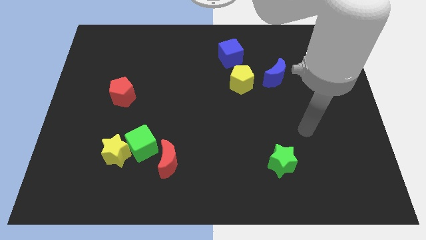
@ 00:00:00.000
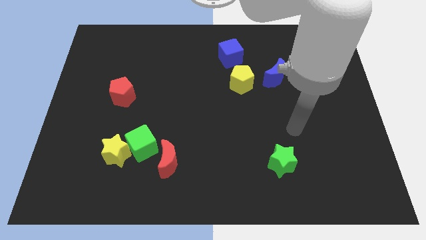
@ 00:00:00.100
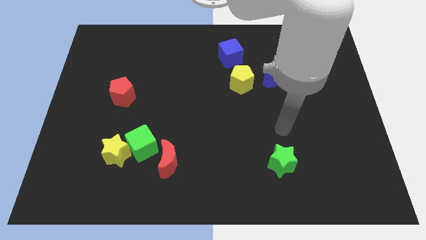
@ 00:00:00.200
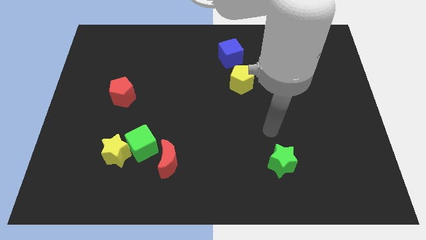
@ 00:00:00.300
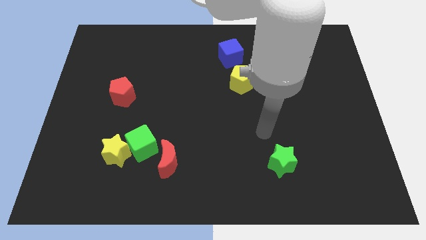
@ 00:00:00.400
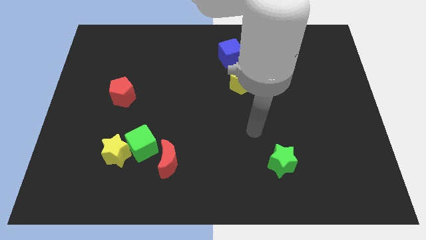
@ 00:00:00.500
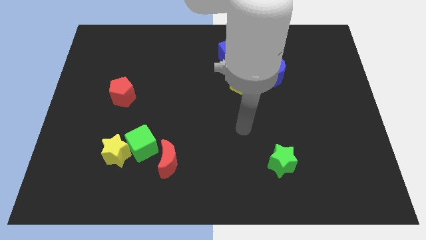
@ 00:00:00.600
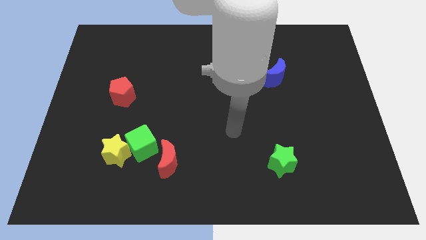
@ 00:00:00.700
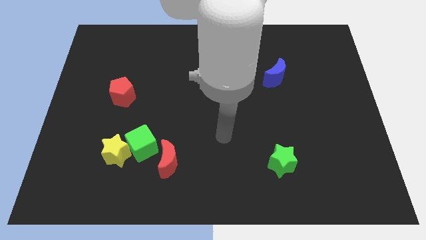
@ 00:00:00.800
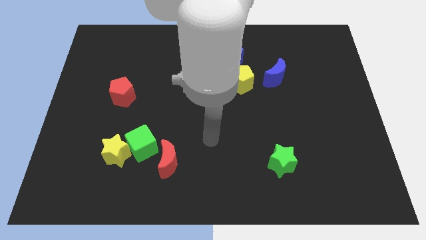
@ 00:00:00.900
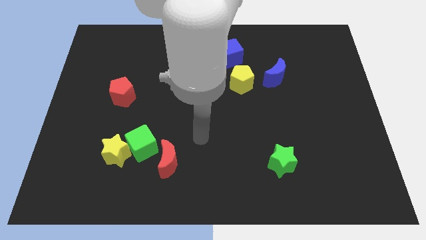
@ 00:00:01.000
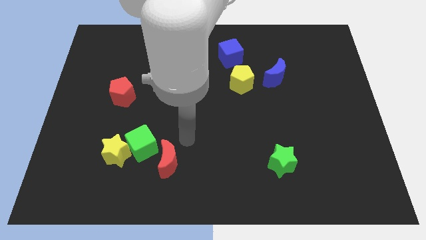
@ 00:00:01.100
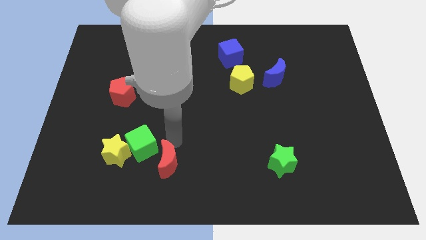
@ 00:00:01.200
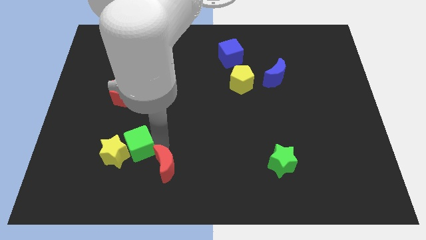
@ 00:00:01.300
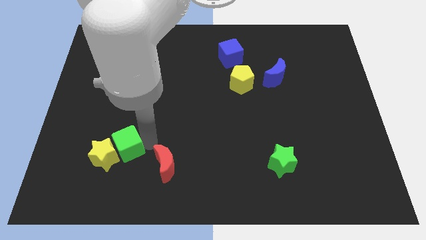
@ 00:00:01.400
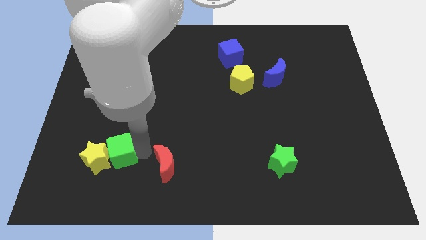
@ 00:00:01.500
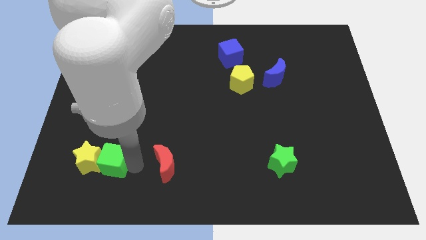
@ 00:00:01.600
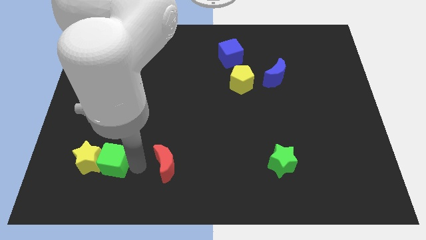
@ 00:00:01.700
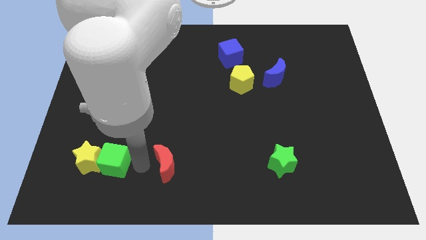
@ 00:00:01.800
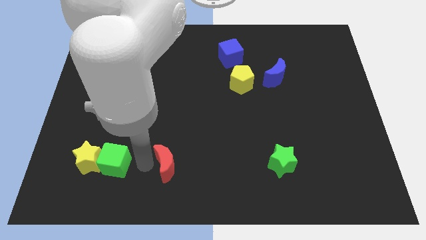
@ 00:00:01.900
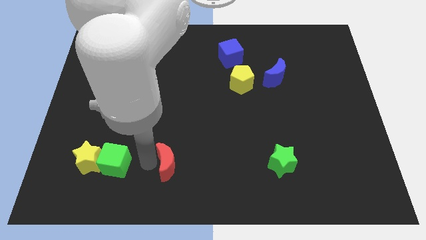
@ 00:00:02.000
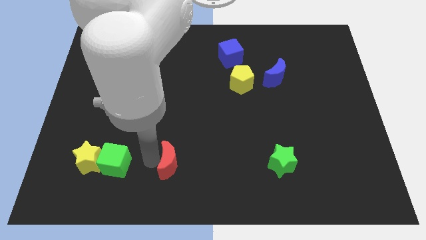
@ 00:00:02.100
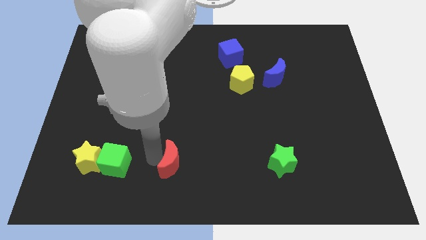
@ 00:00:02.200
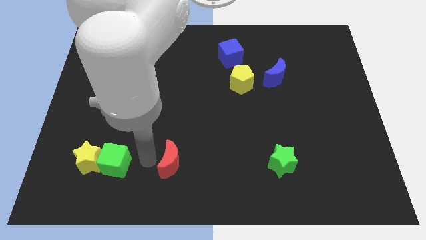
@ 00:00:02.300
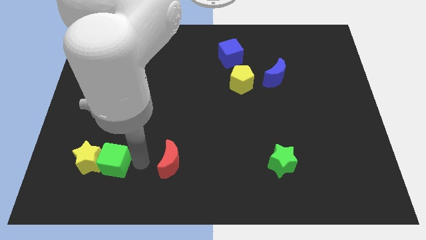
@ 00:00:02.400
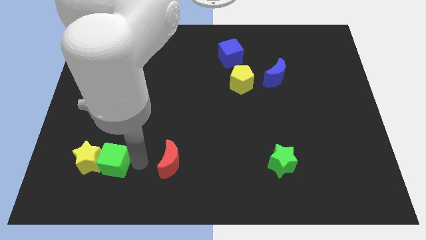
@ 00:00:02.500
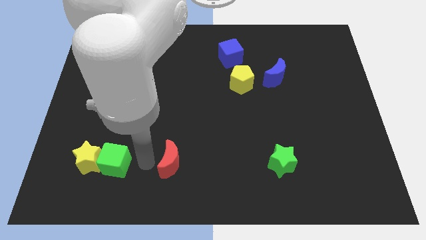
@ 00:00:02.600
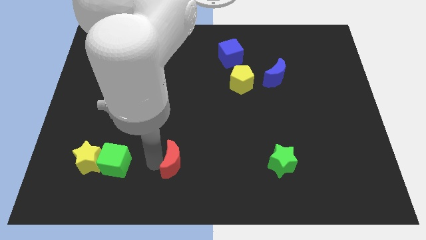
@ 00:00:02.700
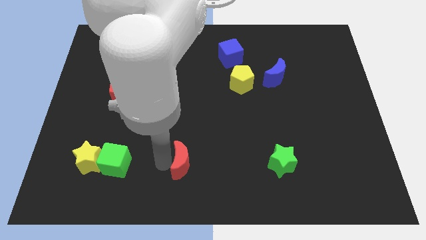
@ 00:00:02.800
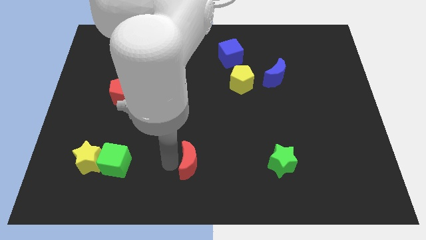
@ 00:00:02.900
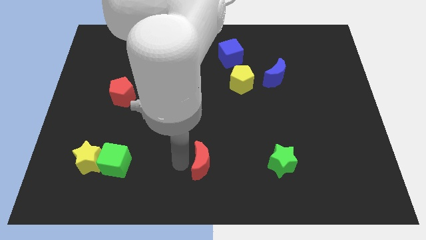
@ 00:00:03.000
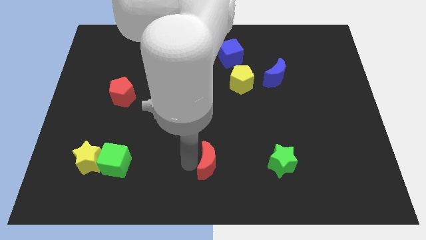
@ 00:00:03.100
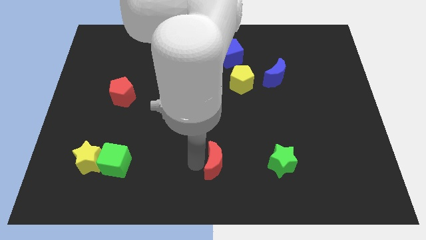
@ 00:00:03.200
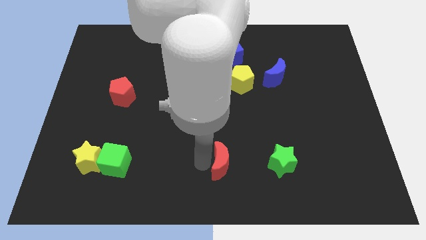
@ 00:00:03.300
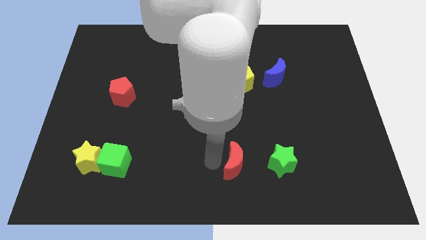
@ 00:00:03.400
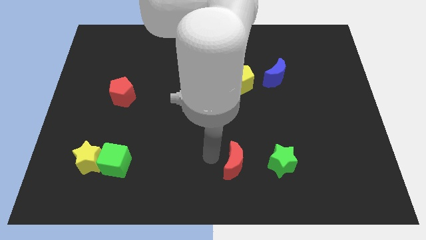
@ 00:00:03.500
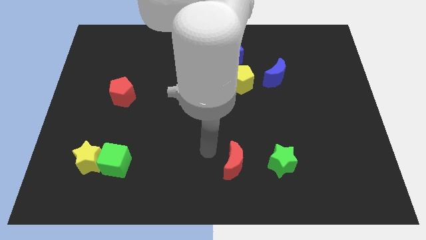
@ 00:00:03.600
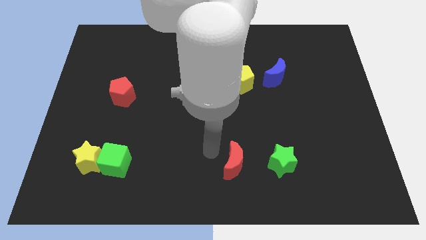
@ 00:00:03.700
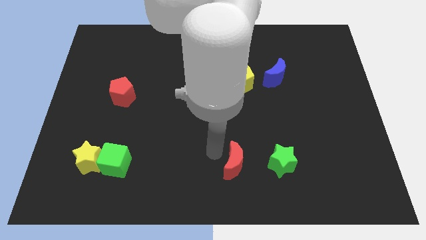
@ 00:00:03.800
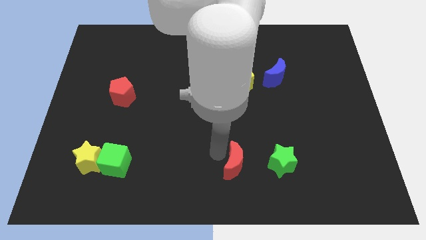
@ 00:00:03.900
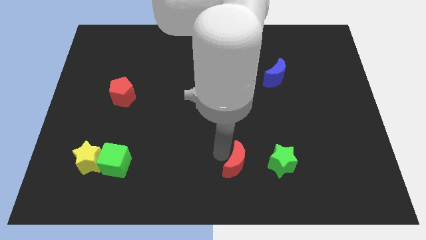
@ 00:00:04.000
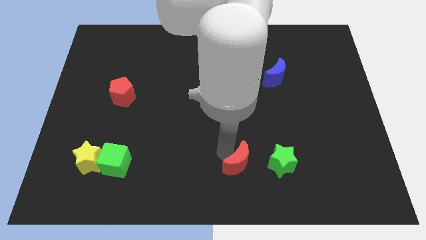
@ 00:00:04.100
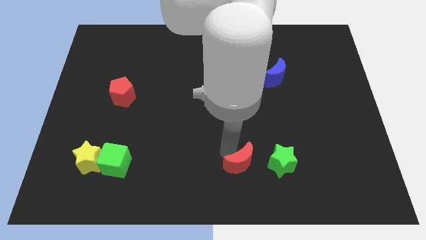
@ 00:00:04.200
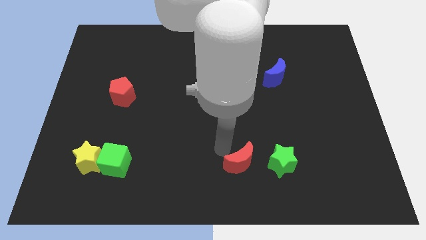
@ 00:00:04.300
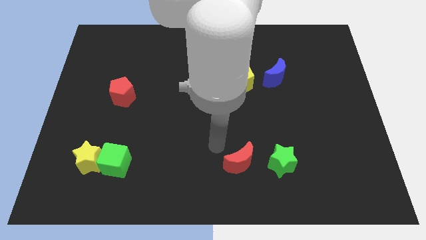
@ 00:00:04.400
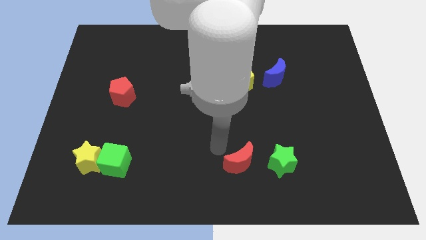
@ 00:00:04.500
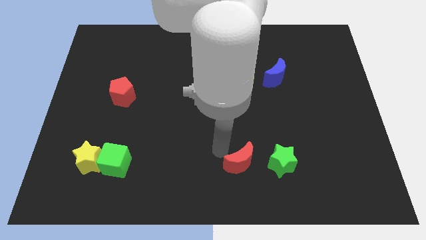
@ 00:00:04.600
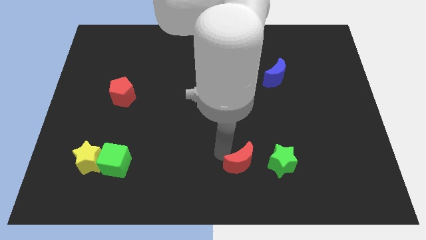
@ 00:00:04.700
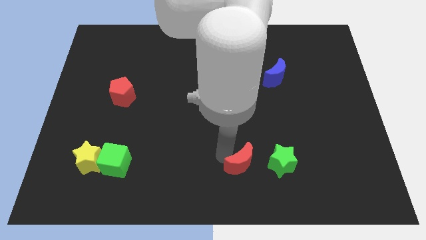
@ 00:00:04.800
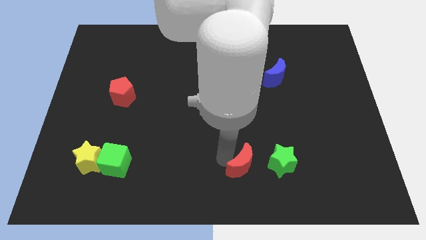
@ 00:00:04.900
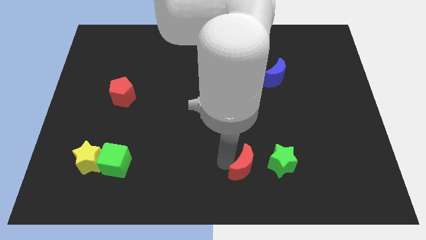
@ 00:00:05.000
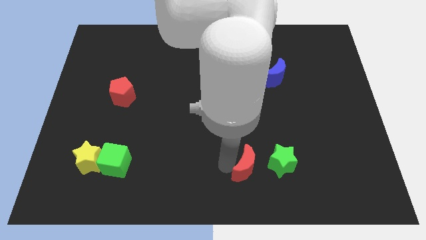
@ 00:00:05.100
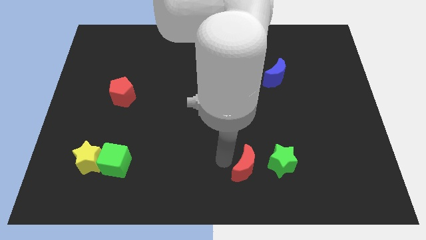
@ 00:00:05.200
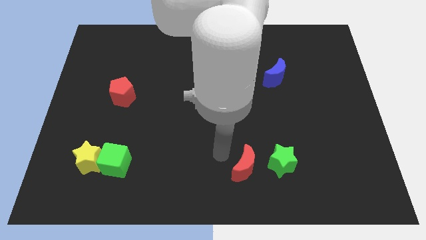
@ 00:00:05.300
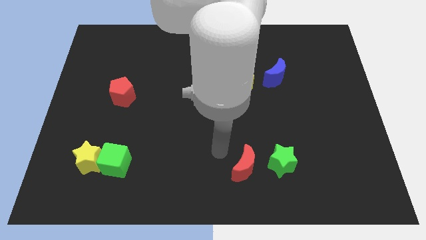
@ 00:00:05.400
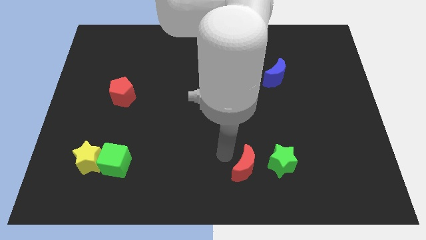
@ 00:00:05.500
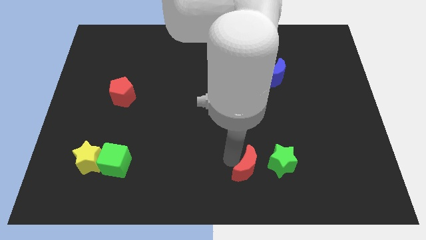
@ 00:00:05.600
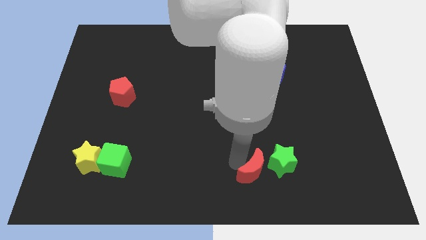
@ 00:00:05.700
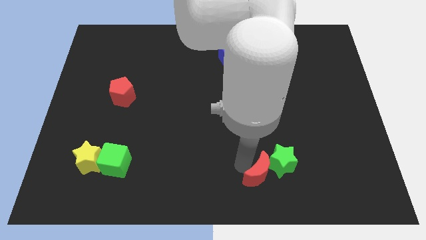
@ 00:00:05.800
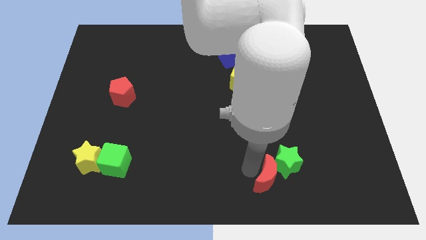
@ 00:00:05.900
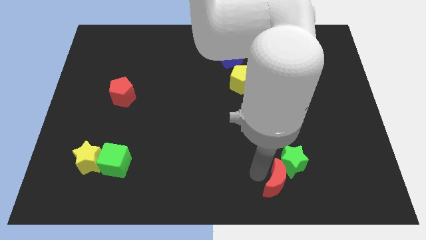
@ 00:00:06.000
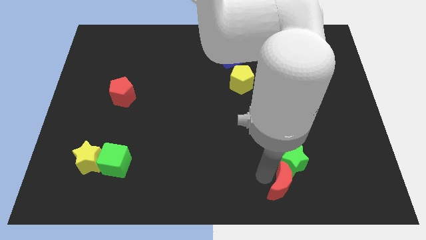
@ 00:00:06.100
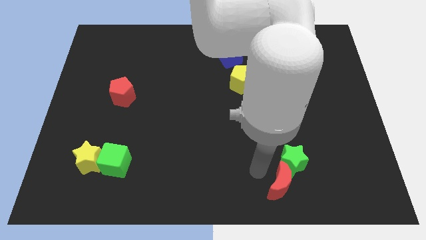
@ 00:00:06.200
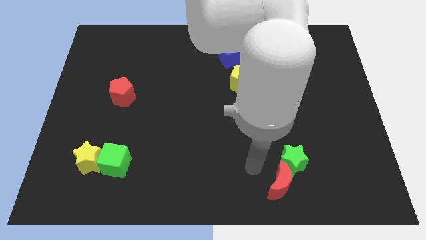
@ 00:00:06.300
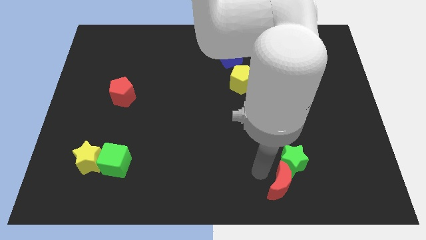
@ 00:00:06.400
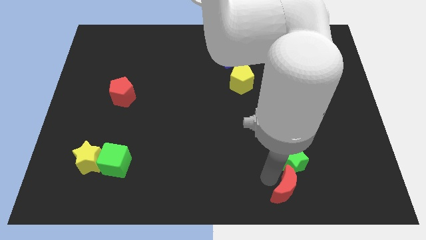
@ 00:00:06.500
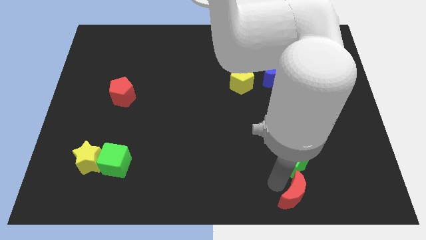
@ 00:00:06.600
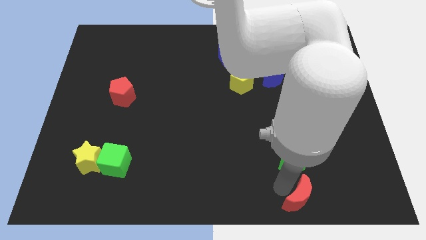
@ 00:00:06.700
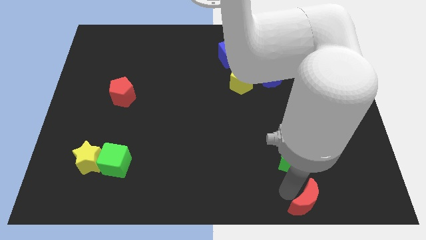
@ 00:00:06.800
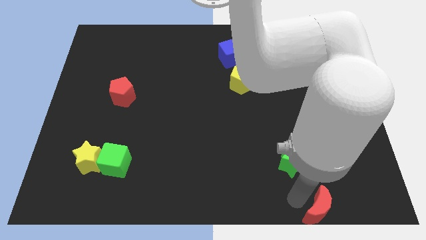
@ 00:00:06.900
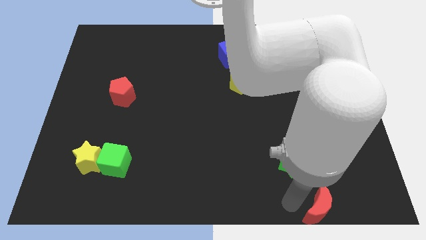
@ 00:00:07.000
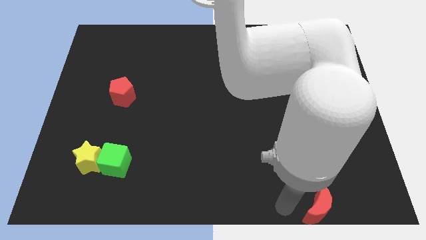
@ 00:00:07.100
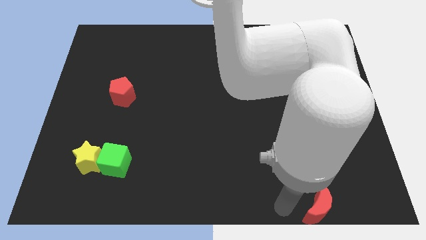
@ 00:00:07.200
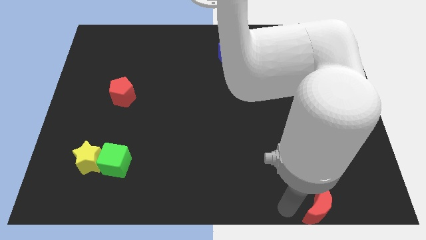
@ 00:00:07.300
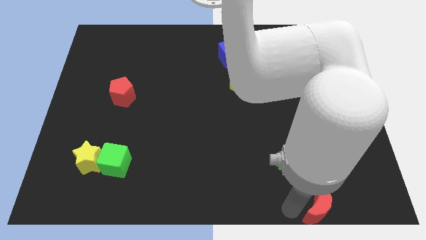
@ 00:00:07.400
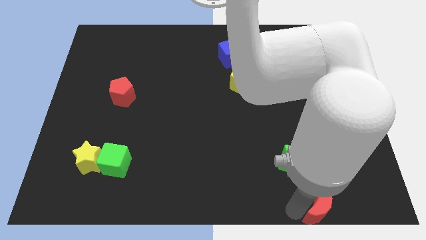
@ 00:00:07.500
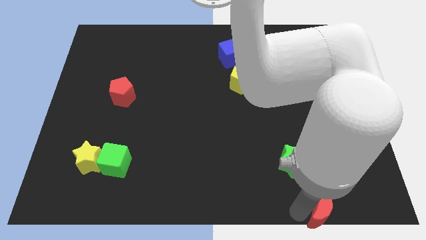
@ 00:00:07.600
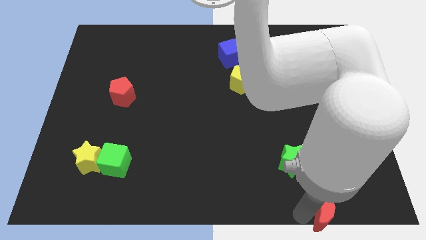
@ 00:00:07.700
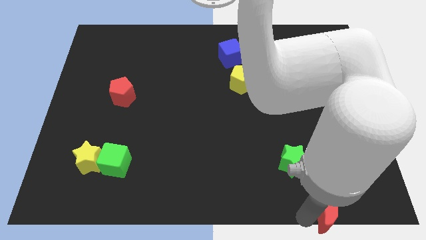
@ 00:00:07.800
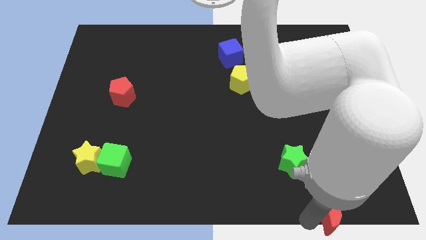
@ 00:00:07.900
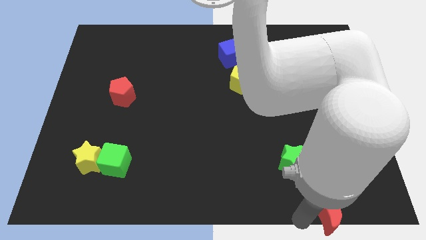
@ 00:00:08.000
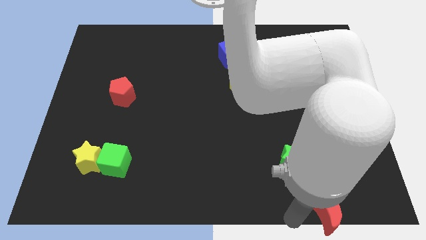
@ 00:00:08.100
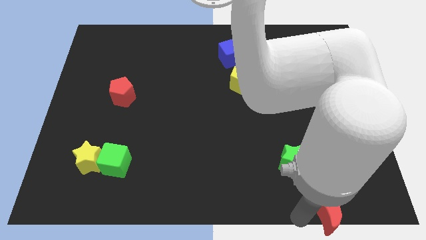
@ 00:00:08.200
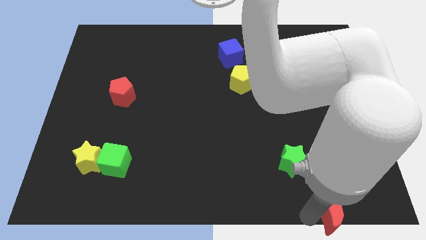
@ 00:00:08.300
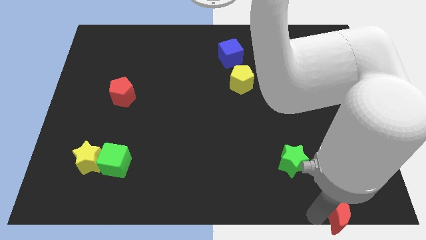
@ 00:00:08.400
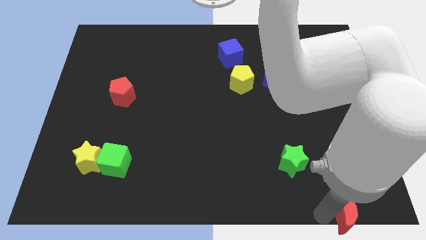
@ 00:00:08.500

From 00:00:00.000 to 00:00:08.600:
push the red moon to the bottom right of the board
